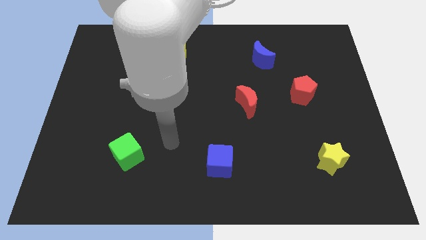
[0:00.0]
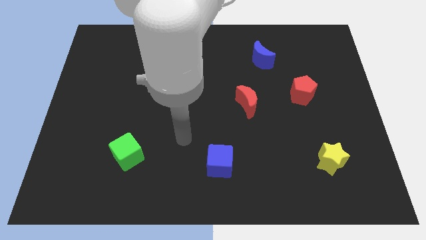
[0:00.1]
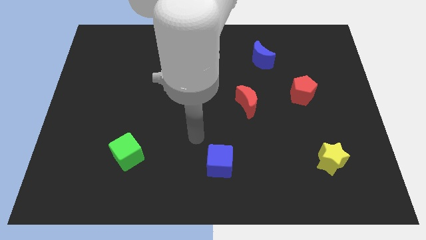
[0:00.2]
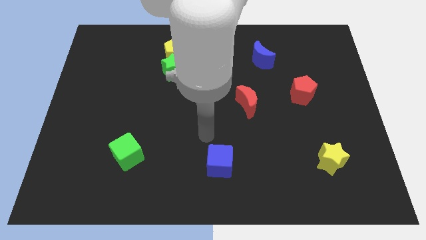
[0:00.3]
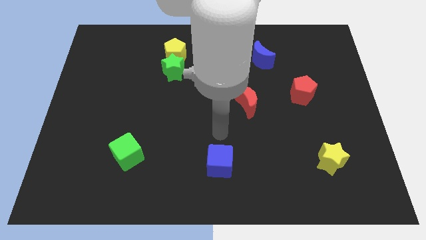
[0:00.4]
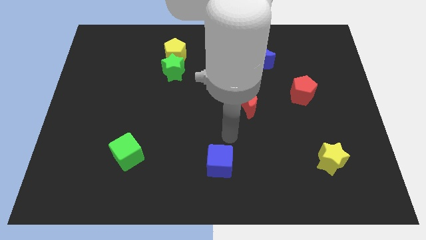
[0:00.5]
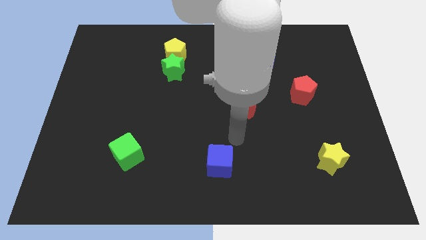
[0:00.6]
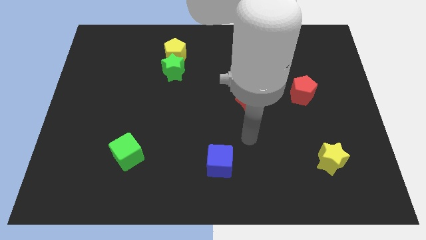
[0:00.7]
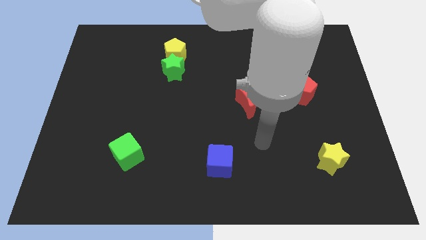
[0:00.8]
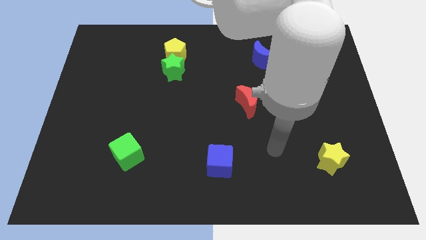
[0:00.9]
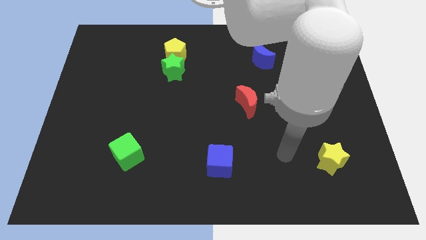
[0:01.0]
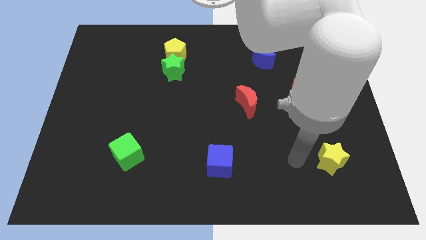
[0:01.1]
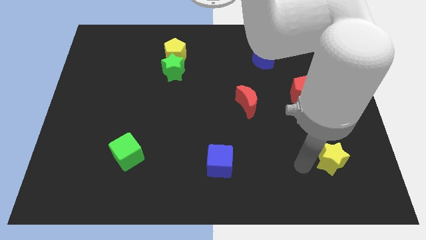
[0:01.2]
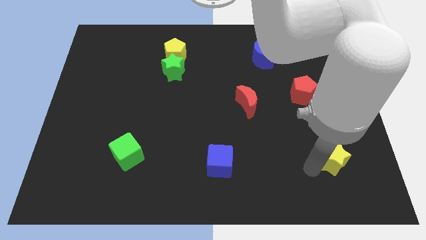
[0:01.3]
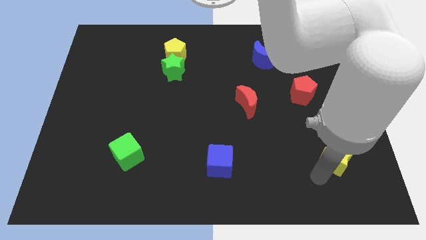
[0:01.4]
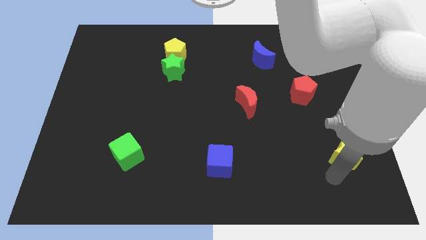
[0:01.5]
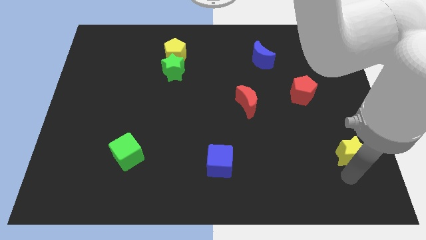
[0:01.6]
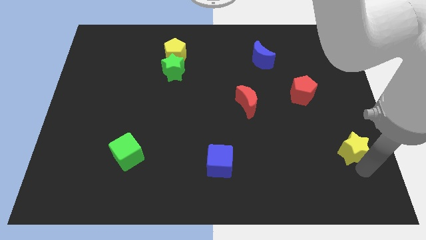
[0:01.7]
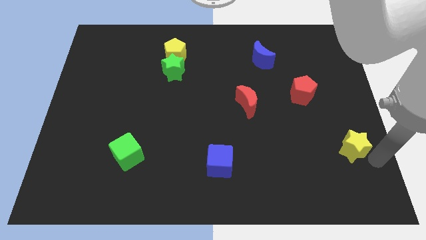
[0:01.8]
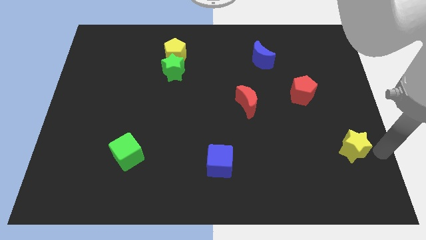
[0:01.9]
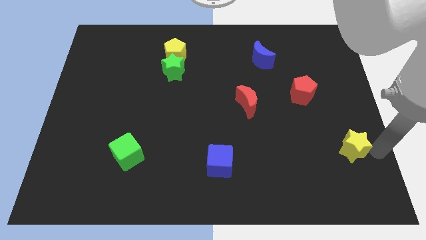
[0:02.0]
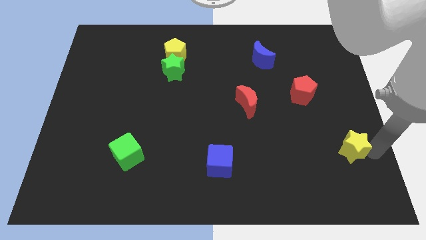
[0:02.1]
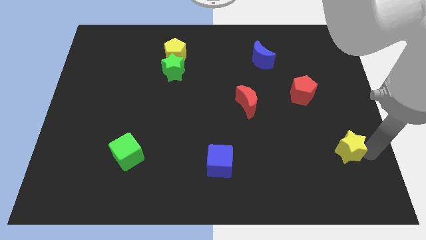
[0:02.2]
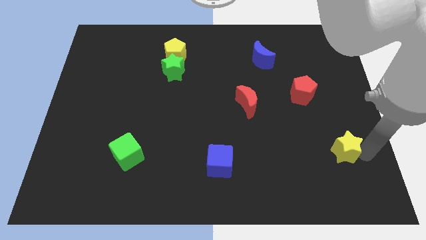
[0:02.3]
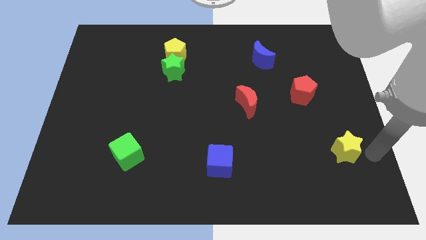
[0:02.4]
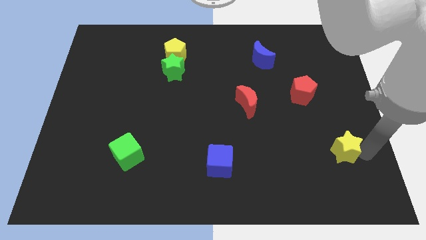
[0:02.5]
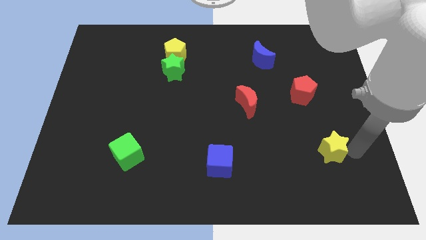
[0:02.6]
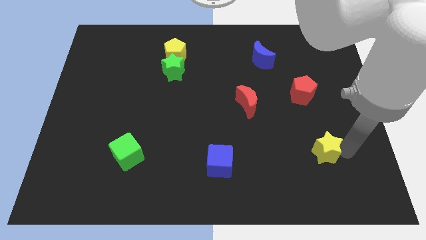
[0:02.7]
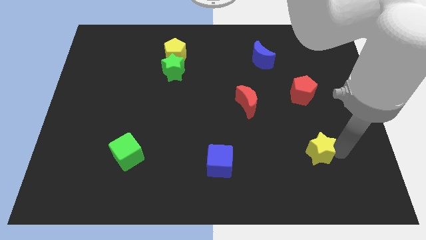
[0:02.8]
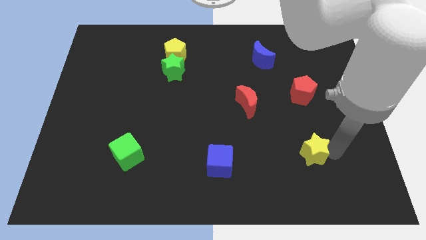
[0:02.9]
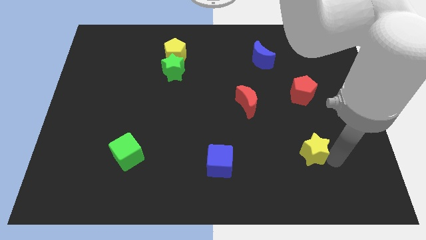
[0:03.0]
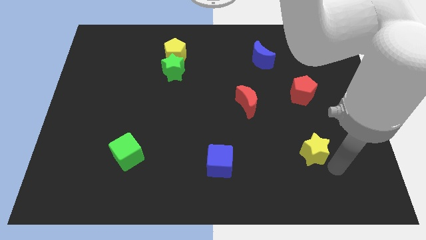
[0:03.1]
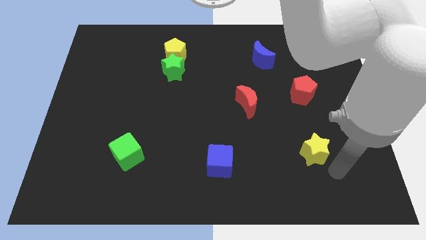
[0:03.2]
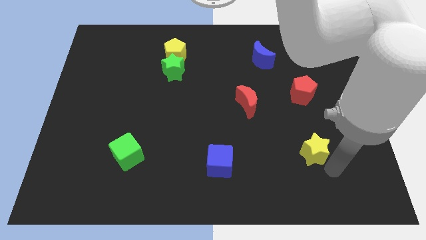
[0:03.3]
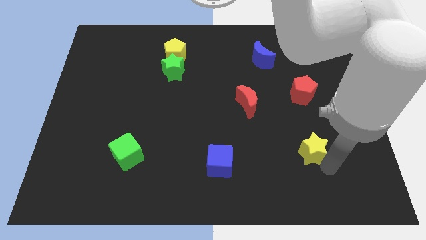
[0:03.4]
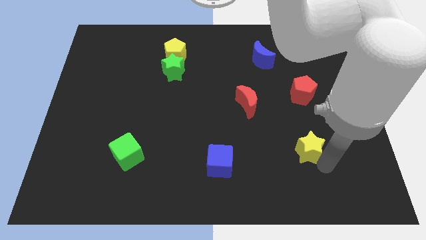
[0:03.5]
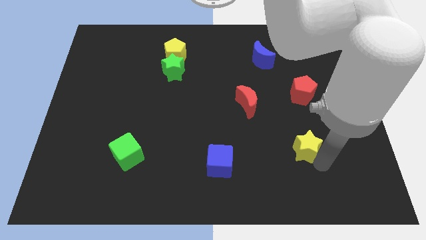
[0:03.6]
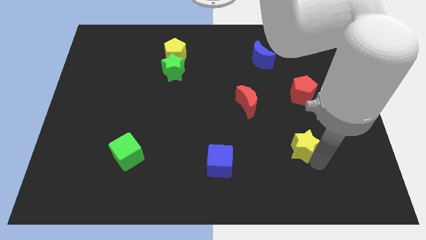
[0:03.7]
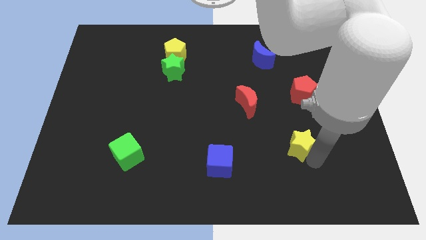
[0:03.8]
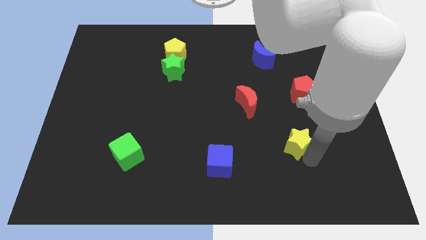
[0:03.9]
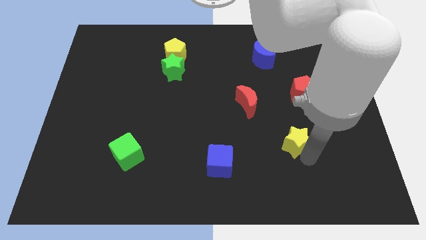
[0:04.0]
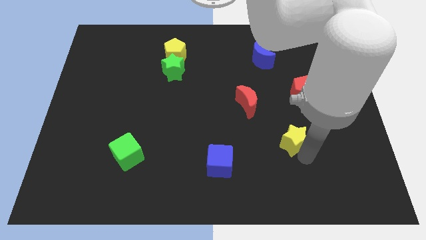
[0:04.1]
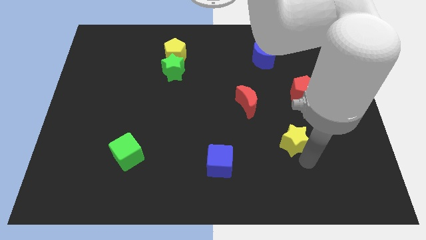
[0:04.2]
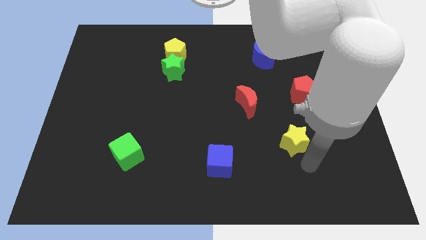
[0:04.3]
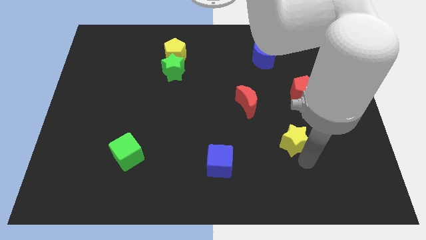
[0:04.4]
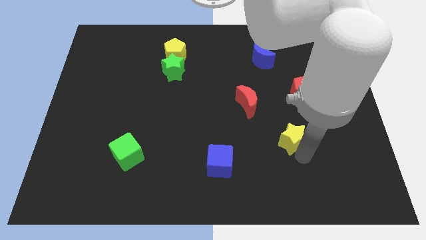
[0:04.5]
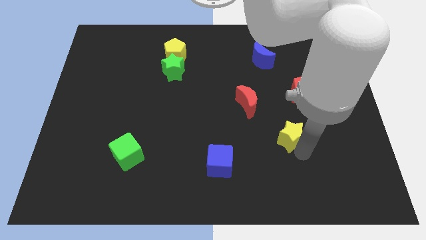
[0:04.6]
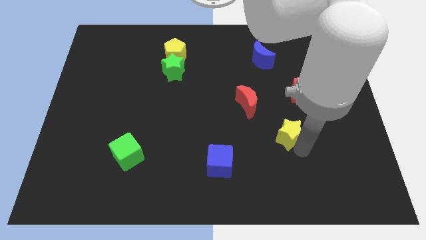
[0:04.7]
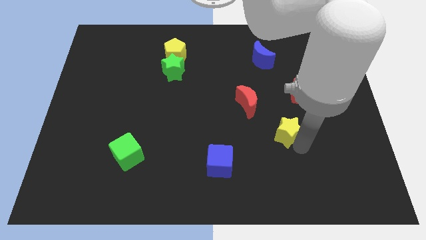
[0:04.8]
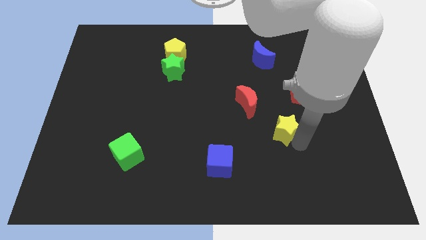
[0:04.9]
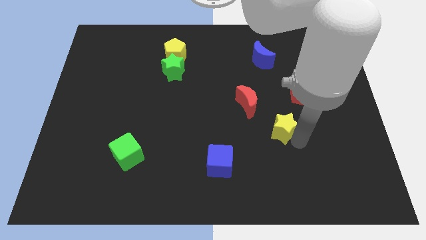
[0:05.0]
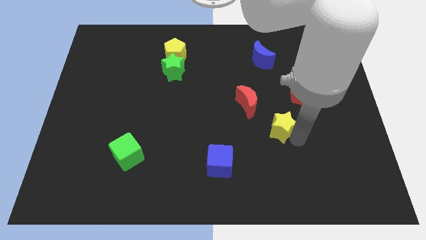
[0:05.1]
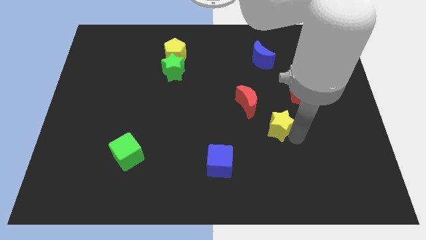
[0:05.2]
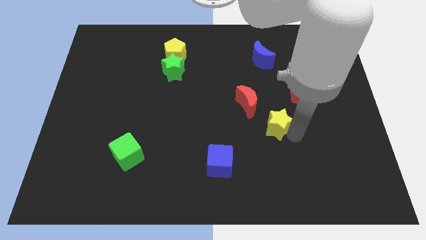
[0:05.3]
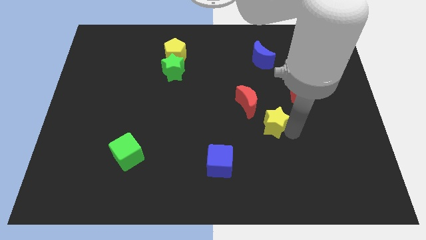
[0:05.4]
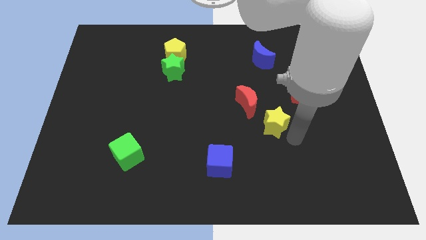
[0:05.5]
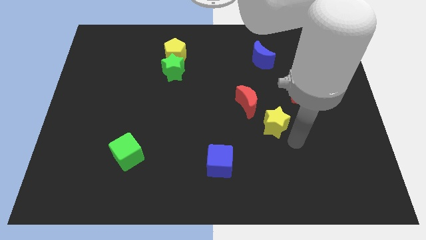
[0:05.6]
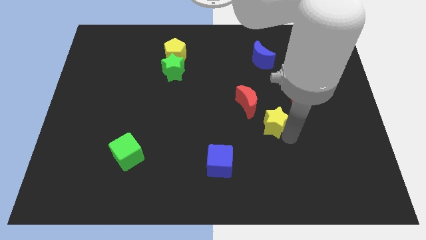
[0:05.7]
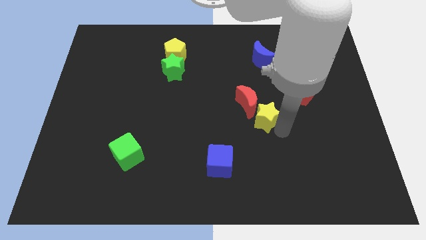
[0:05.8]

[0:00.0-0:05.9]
push the yellow star next to the red moon

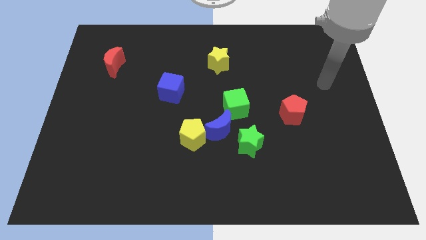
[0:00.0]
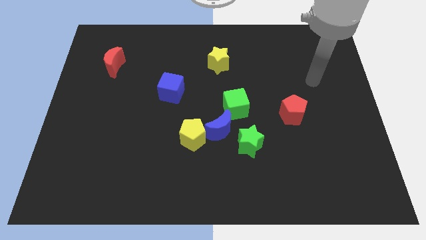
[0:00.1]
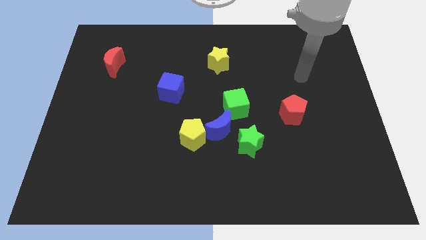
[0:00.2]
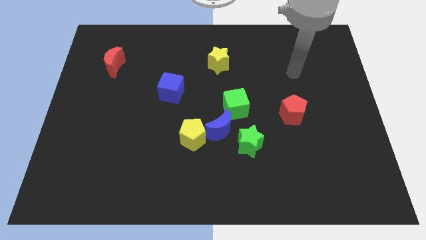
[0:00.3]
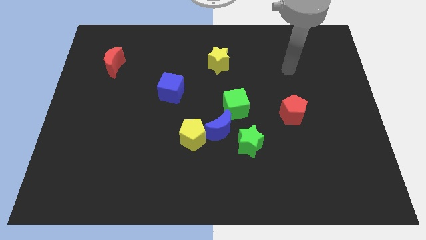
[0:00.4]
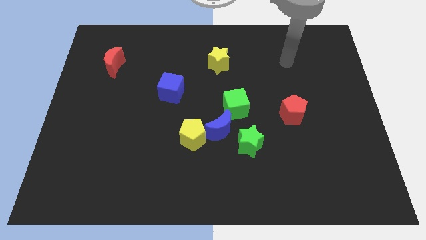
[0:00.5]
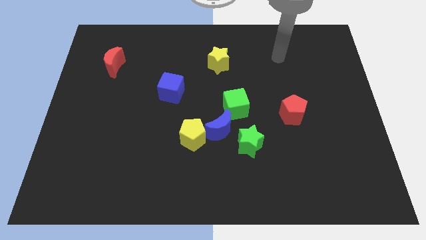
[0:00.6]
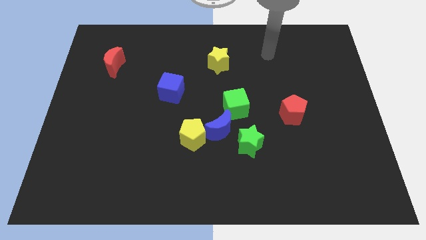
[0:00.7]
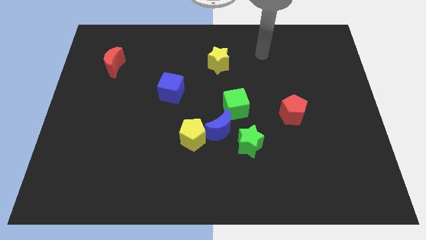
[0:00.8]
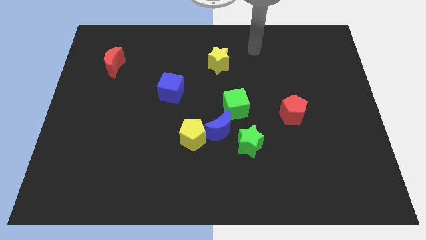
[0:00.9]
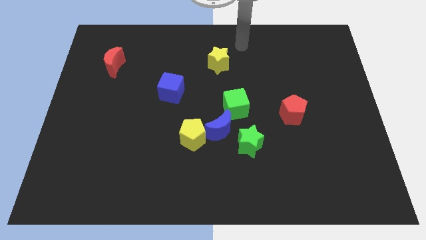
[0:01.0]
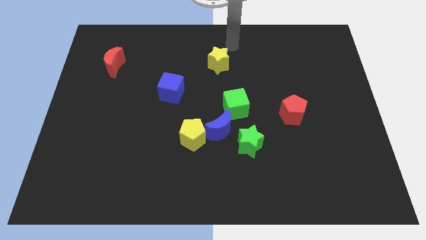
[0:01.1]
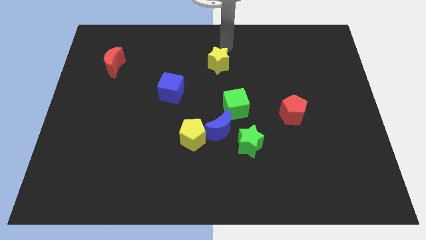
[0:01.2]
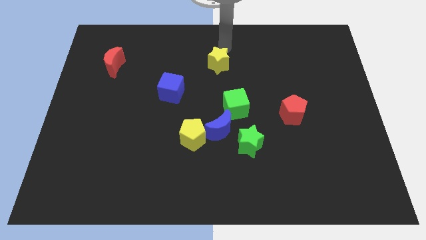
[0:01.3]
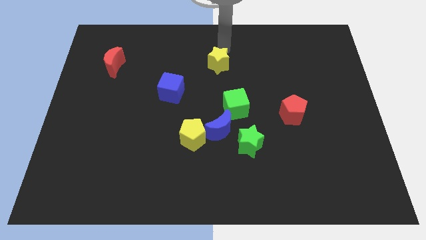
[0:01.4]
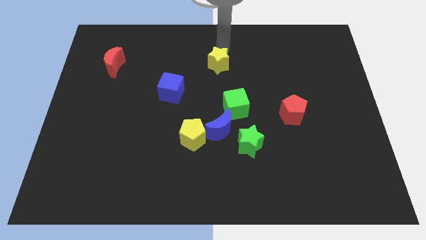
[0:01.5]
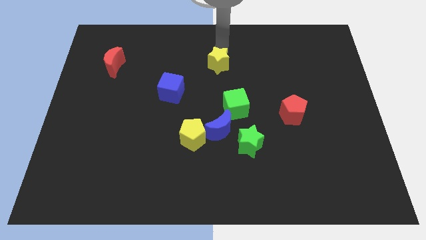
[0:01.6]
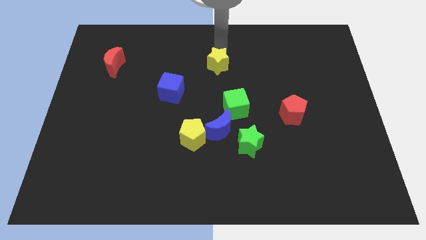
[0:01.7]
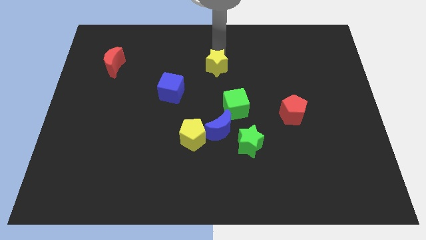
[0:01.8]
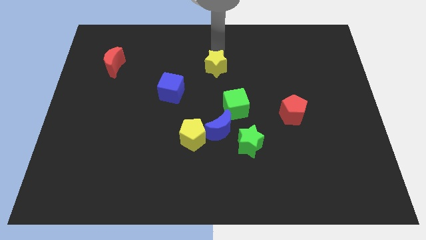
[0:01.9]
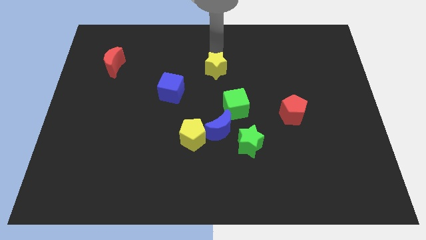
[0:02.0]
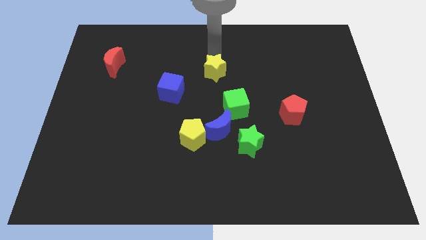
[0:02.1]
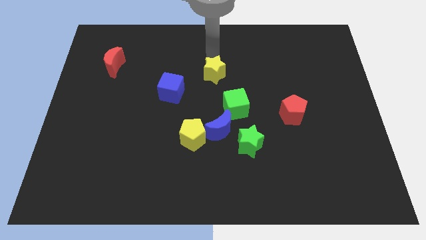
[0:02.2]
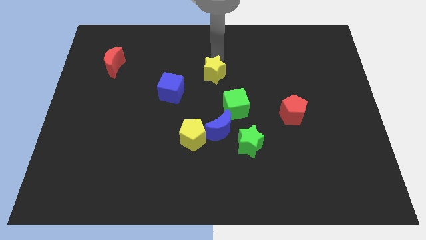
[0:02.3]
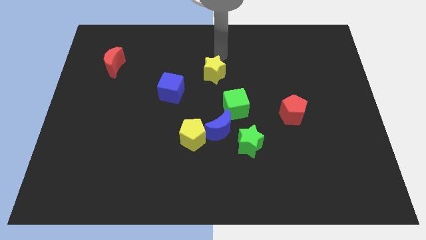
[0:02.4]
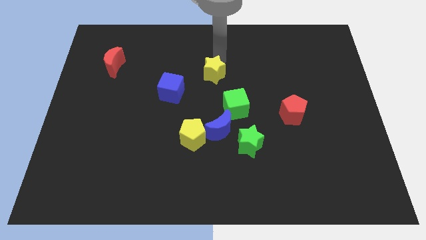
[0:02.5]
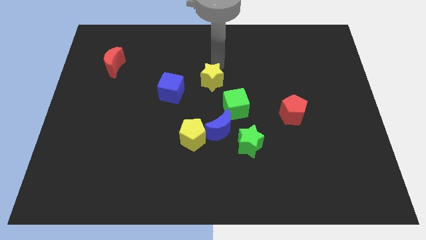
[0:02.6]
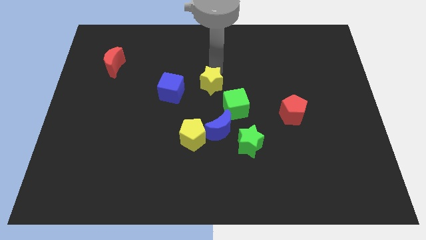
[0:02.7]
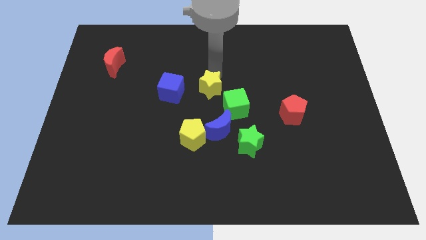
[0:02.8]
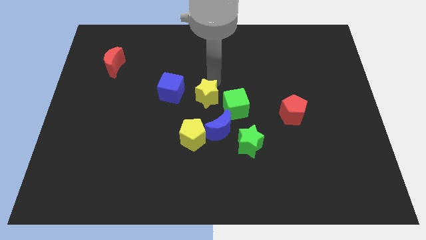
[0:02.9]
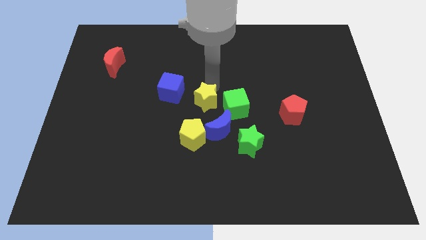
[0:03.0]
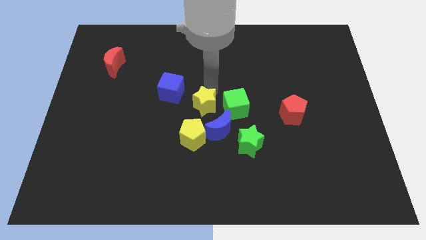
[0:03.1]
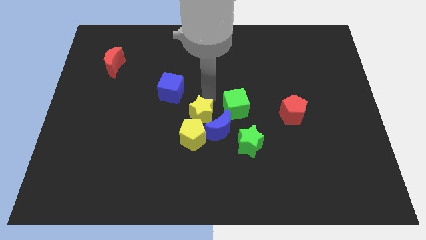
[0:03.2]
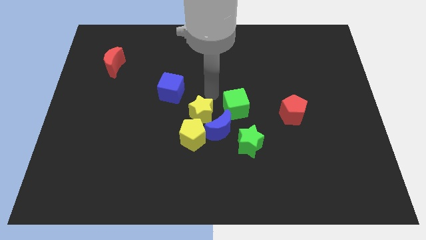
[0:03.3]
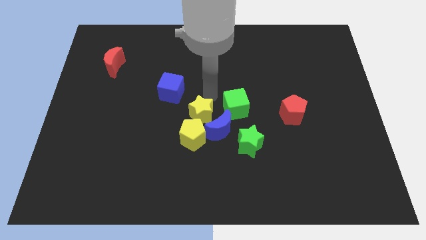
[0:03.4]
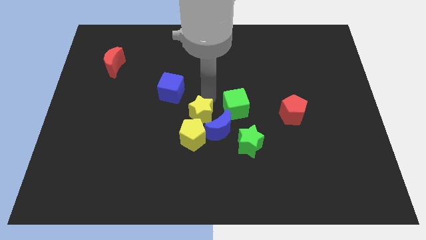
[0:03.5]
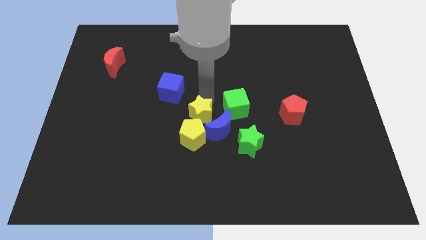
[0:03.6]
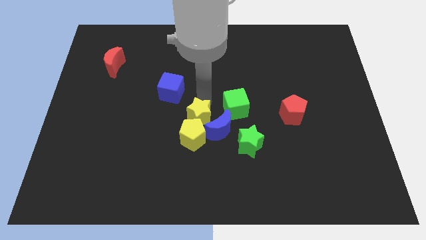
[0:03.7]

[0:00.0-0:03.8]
slide the yellow star close to the yellow pentagon
